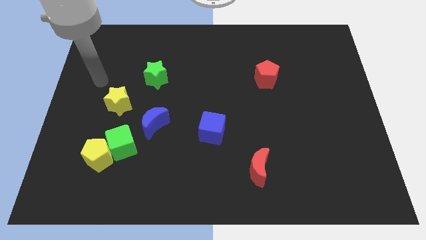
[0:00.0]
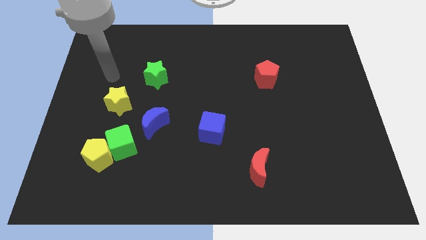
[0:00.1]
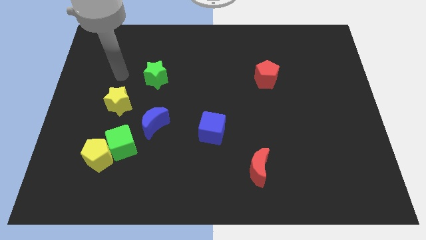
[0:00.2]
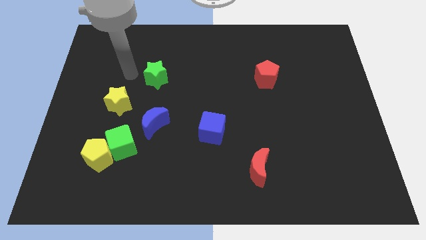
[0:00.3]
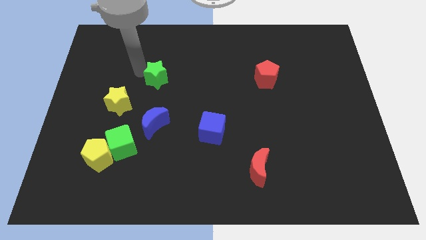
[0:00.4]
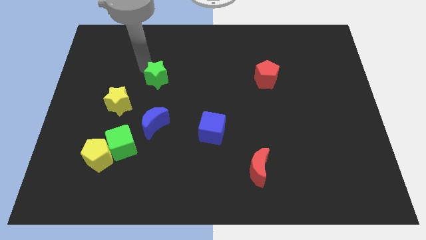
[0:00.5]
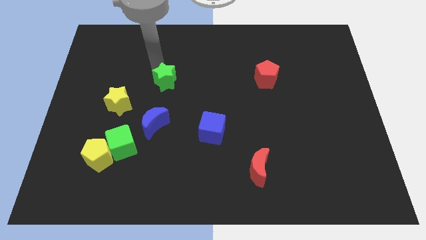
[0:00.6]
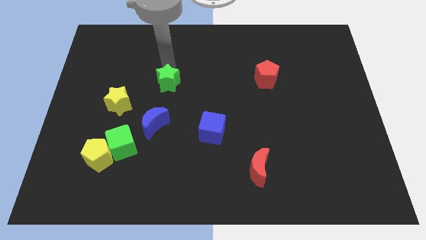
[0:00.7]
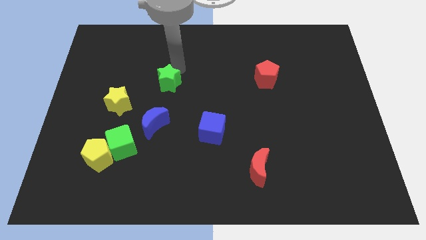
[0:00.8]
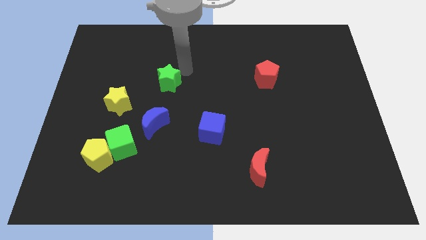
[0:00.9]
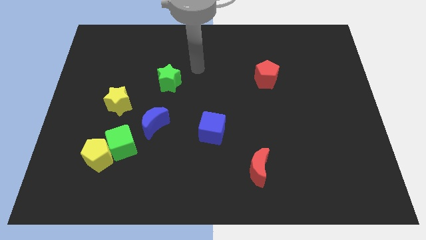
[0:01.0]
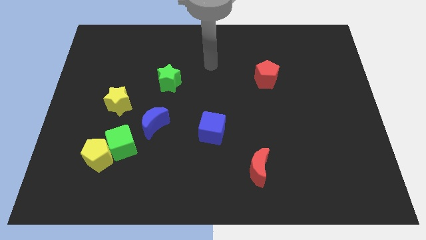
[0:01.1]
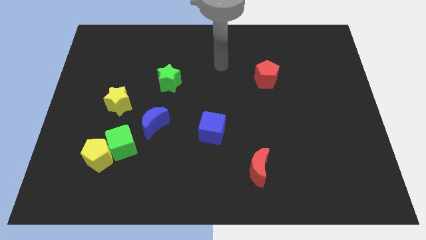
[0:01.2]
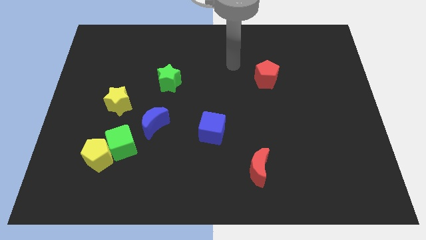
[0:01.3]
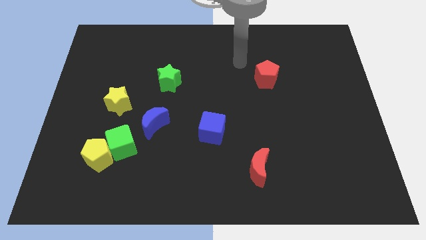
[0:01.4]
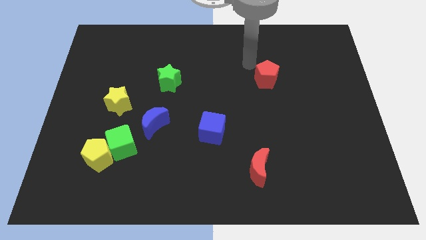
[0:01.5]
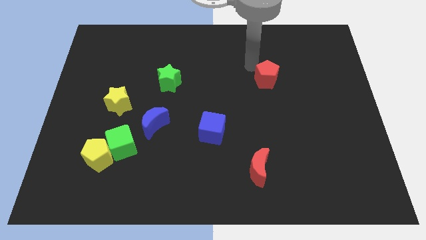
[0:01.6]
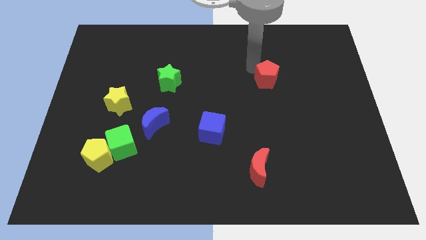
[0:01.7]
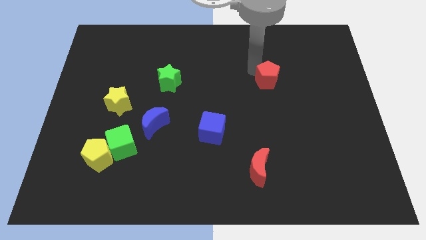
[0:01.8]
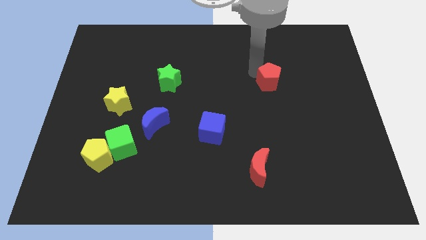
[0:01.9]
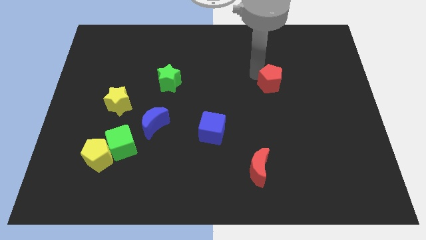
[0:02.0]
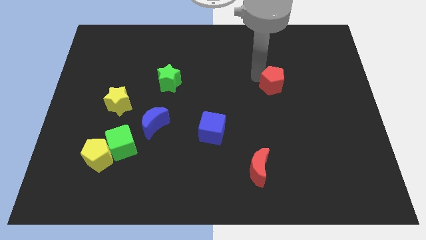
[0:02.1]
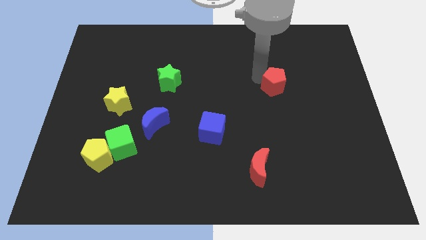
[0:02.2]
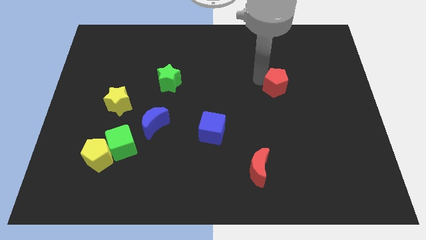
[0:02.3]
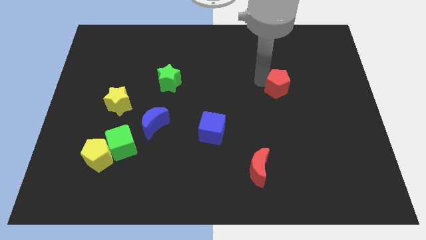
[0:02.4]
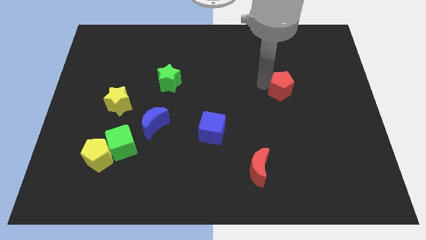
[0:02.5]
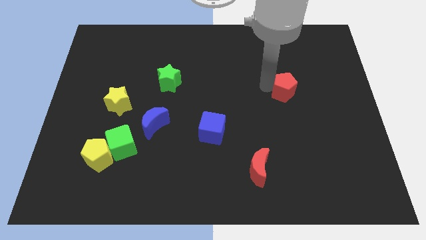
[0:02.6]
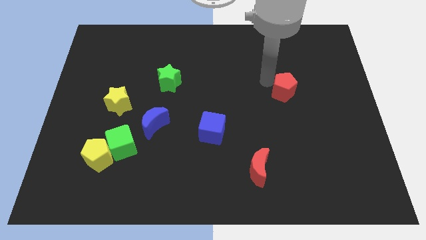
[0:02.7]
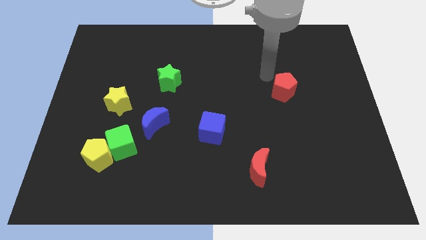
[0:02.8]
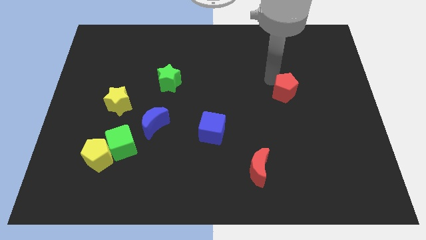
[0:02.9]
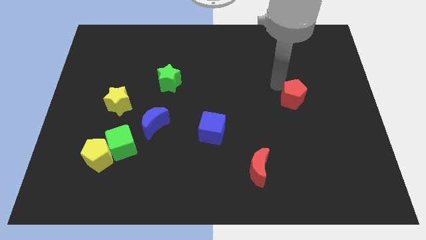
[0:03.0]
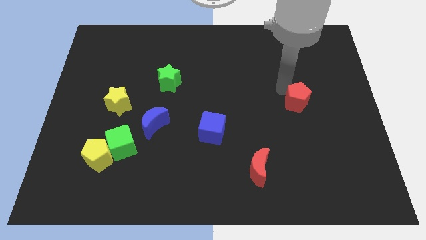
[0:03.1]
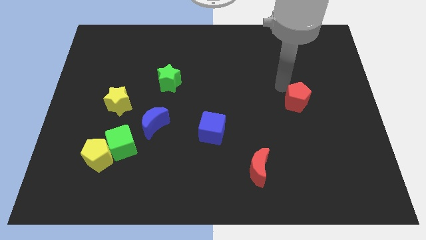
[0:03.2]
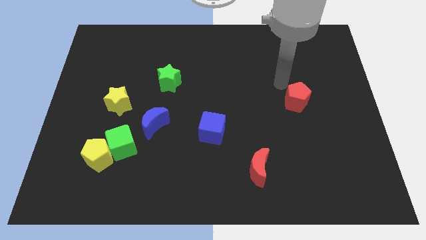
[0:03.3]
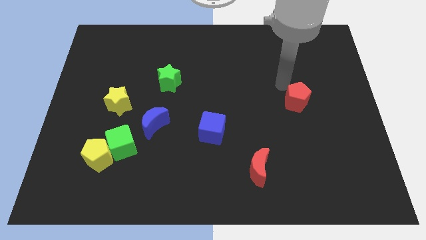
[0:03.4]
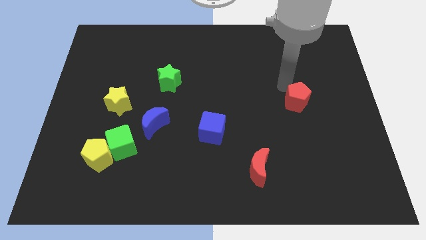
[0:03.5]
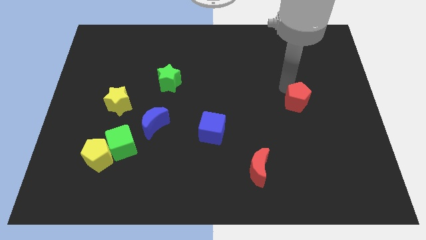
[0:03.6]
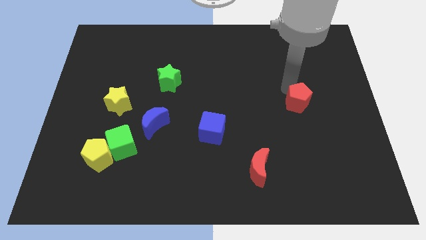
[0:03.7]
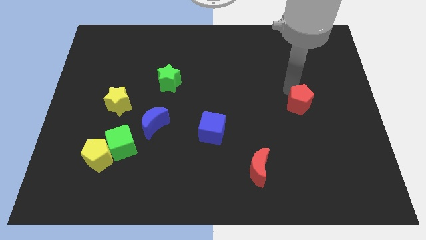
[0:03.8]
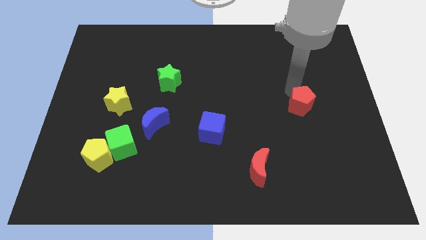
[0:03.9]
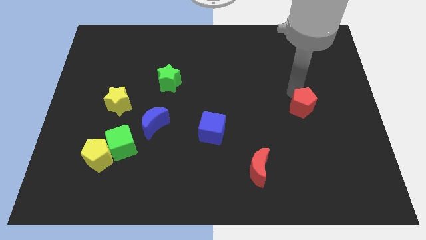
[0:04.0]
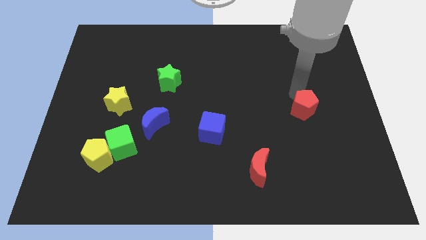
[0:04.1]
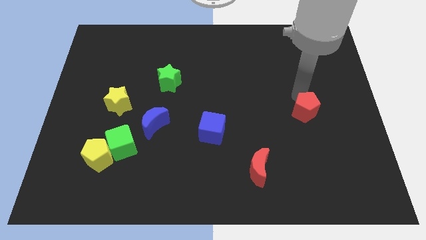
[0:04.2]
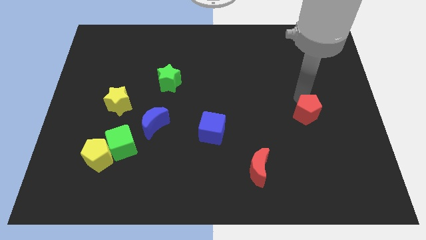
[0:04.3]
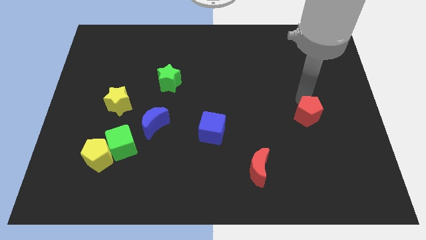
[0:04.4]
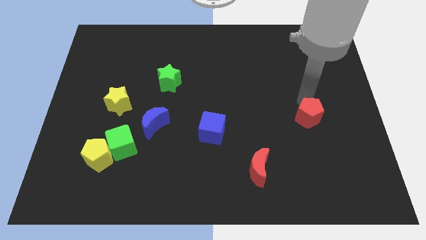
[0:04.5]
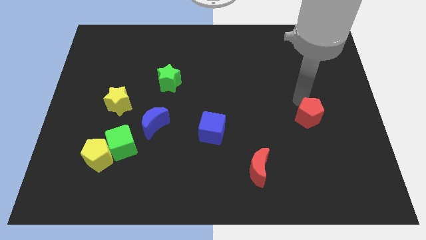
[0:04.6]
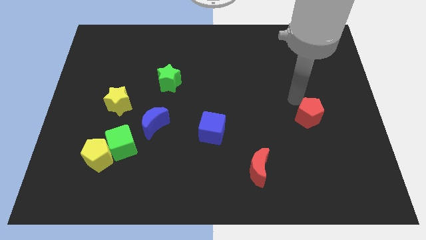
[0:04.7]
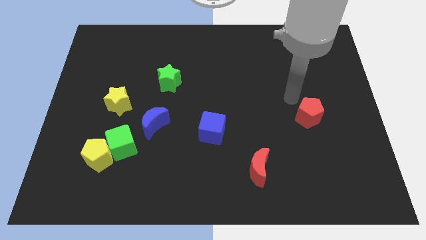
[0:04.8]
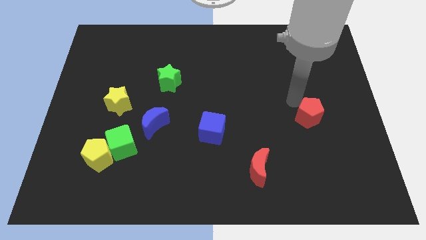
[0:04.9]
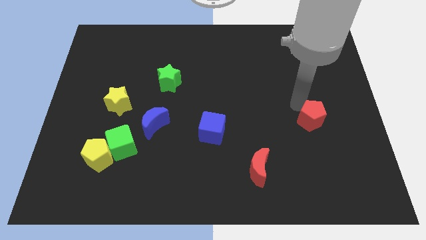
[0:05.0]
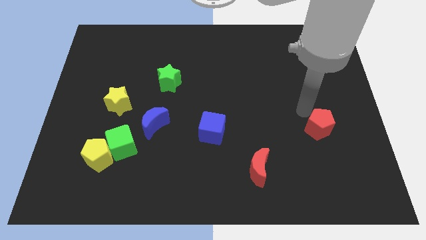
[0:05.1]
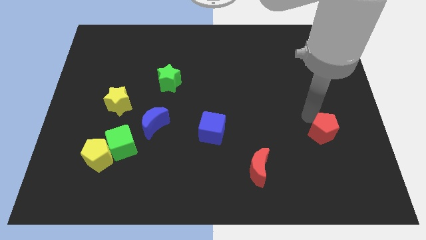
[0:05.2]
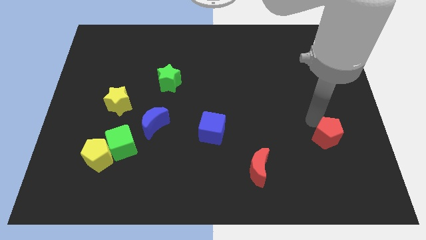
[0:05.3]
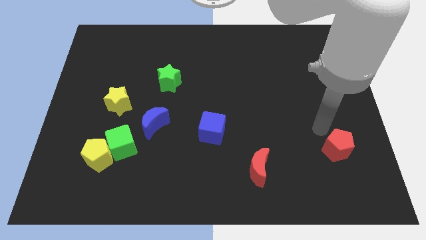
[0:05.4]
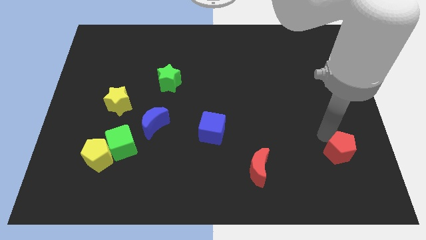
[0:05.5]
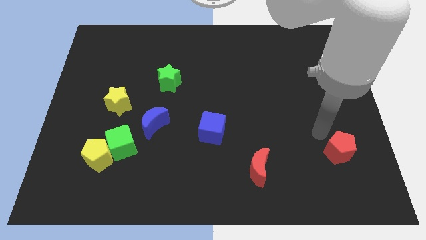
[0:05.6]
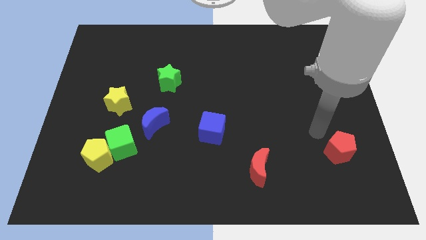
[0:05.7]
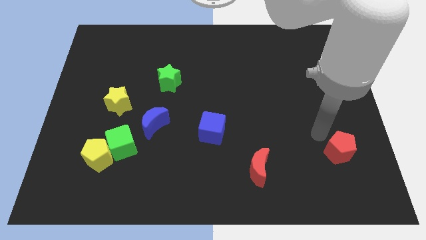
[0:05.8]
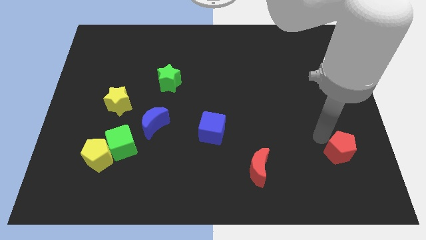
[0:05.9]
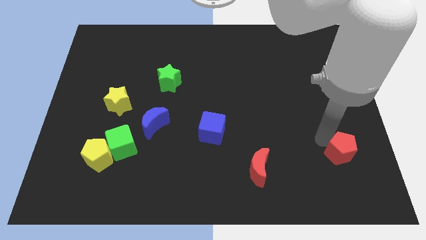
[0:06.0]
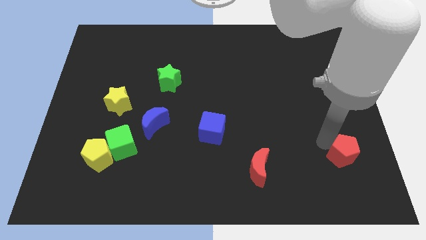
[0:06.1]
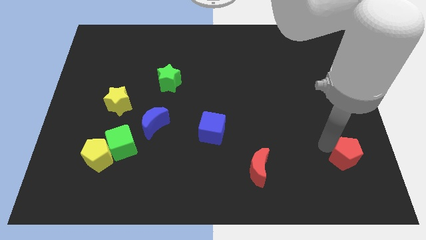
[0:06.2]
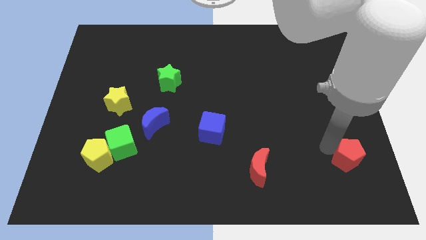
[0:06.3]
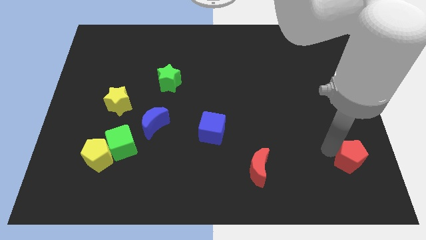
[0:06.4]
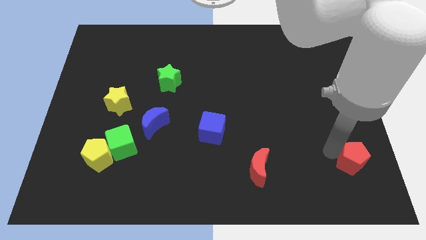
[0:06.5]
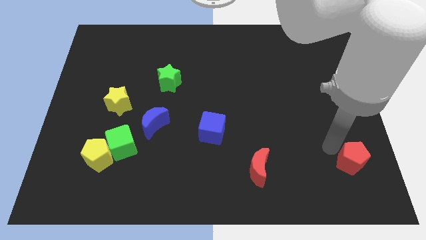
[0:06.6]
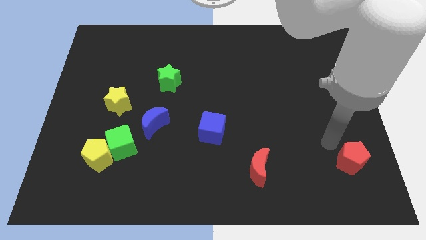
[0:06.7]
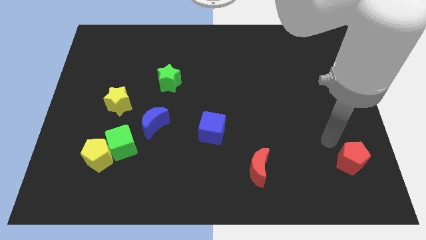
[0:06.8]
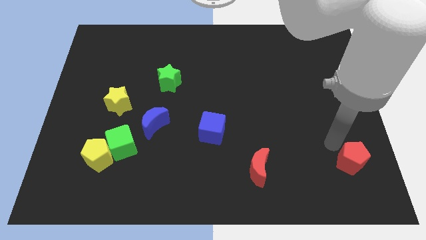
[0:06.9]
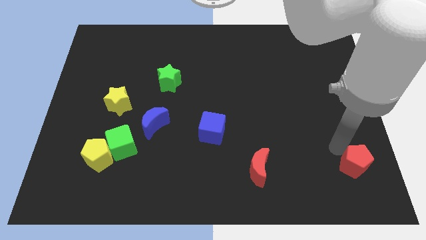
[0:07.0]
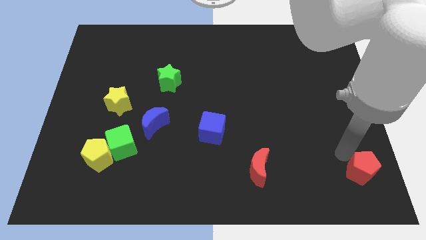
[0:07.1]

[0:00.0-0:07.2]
push the red pentagon to the bottom right corner
